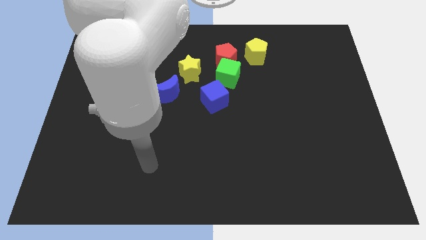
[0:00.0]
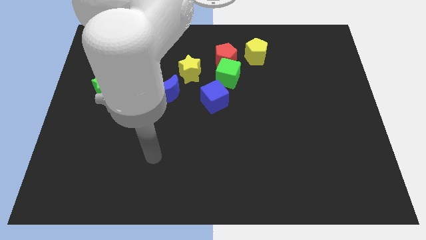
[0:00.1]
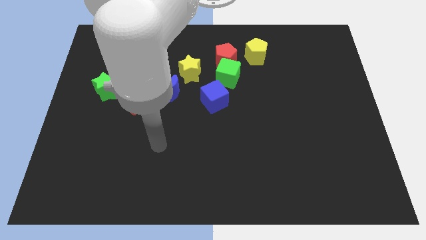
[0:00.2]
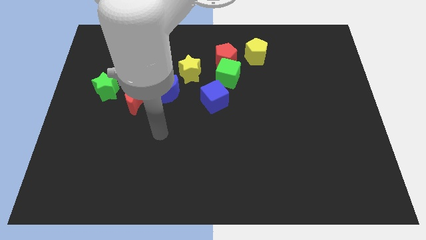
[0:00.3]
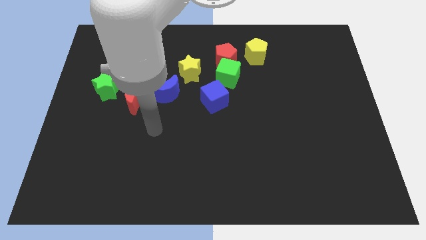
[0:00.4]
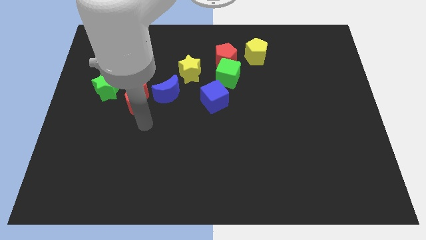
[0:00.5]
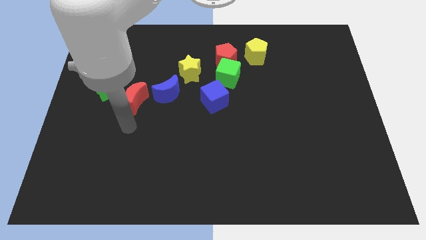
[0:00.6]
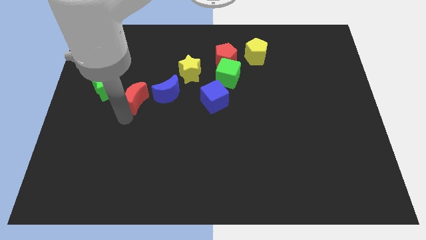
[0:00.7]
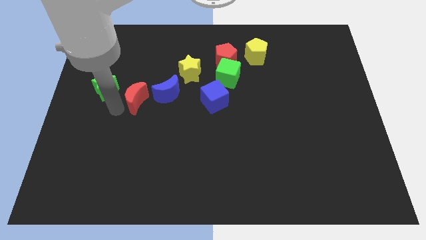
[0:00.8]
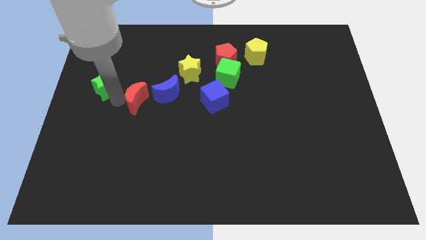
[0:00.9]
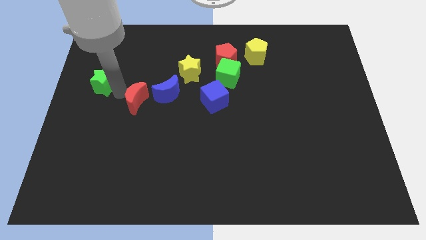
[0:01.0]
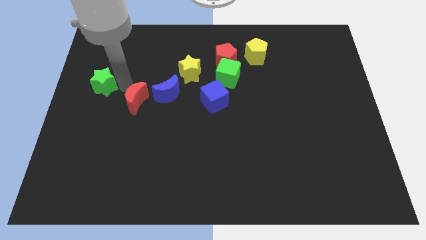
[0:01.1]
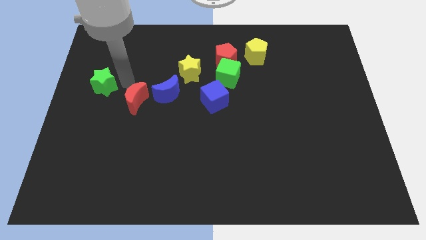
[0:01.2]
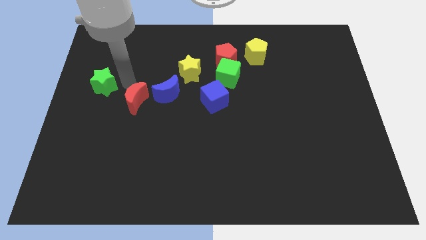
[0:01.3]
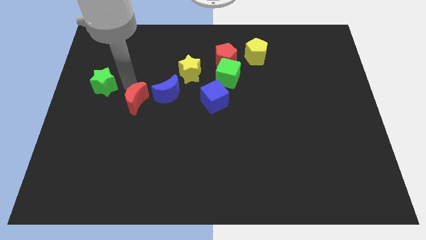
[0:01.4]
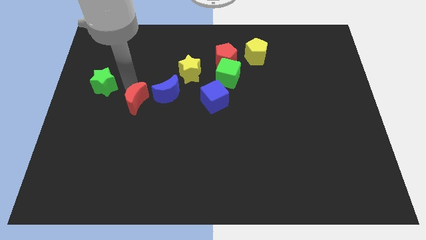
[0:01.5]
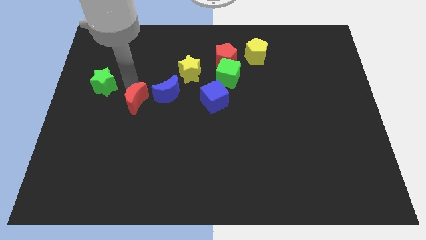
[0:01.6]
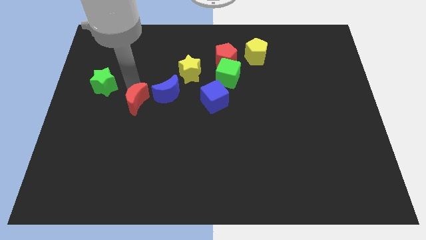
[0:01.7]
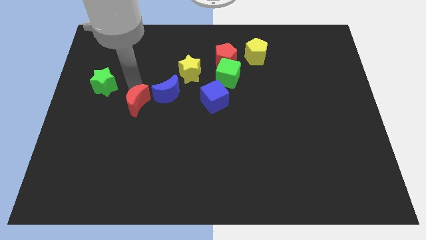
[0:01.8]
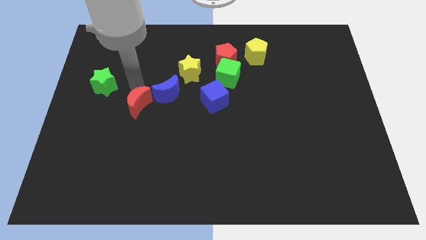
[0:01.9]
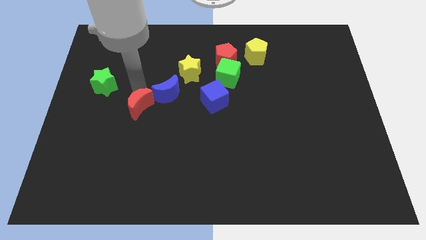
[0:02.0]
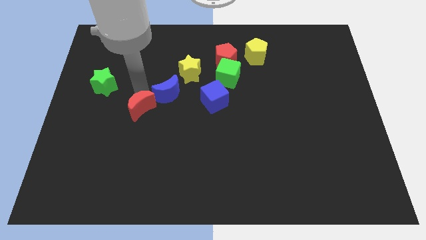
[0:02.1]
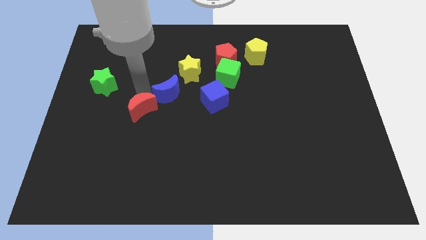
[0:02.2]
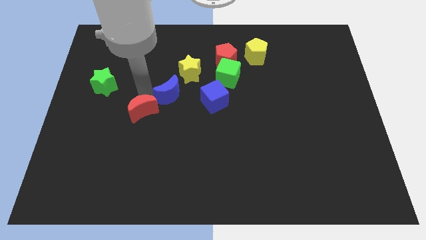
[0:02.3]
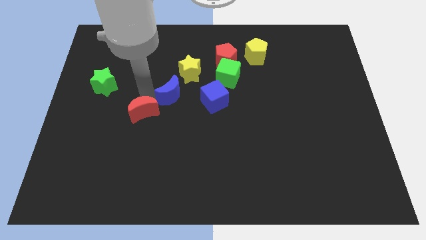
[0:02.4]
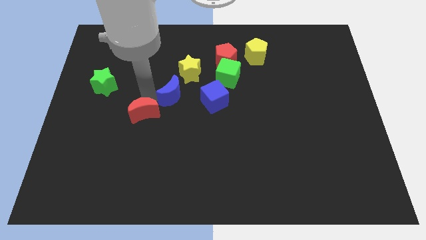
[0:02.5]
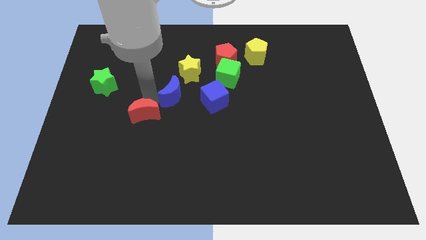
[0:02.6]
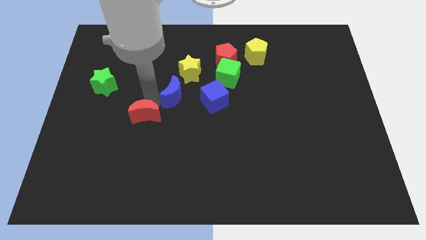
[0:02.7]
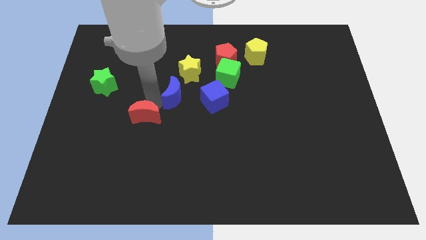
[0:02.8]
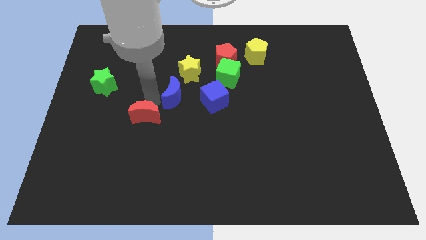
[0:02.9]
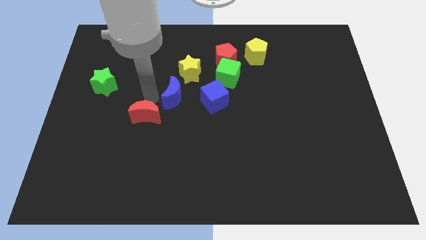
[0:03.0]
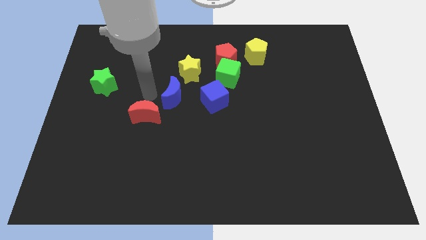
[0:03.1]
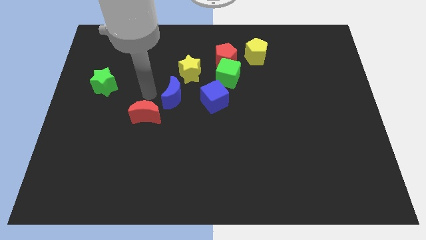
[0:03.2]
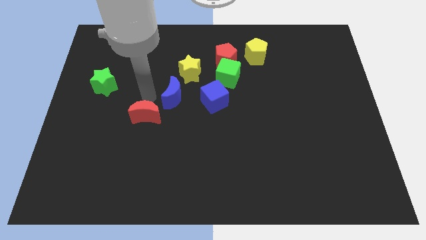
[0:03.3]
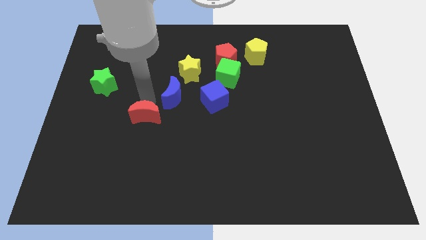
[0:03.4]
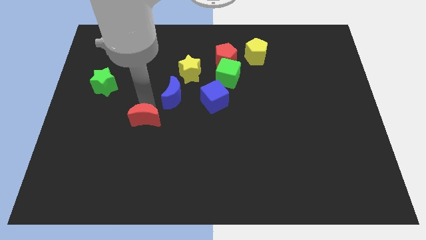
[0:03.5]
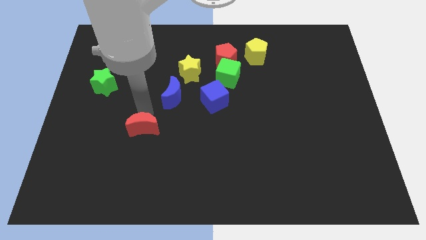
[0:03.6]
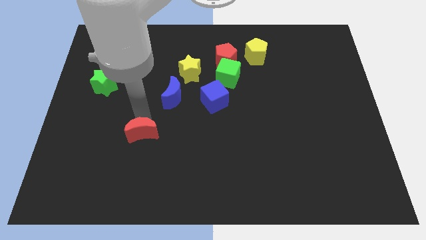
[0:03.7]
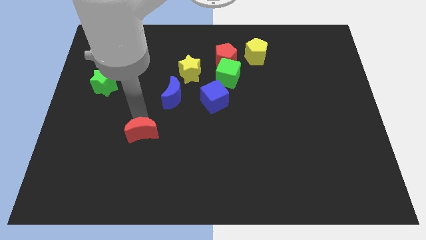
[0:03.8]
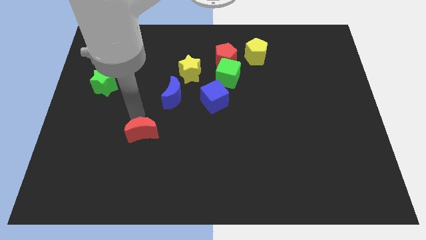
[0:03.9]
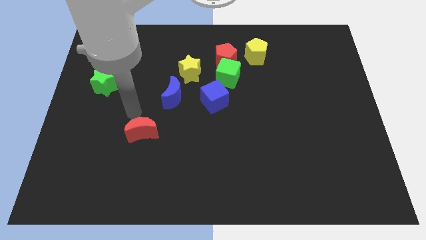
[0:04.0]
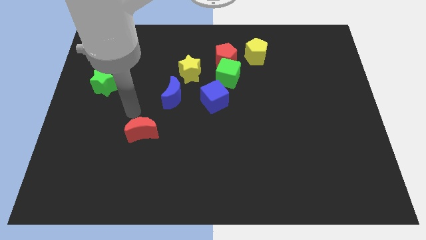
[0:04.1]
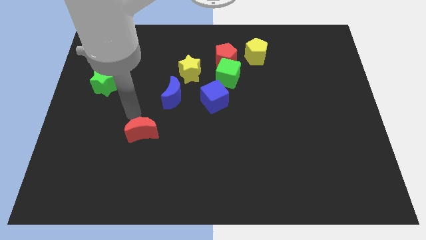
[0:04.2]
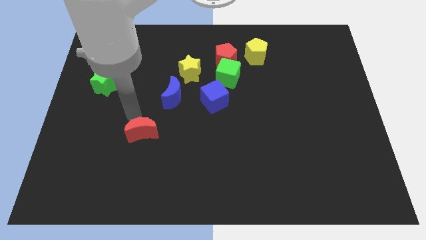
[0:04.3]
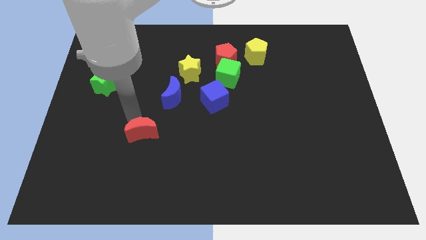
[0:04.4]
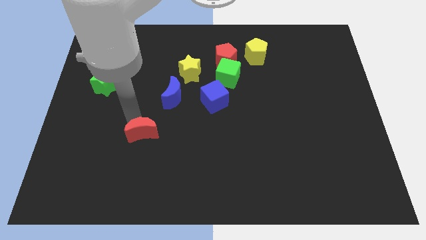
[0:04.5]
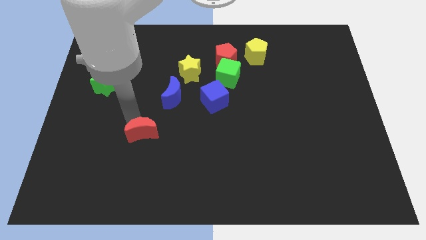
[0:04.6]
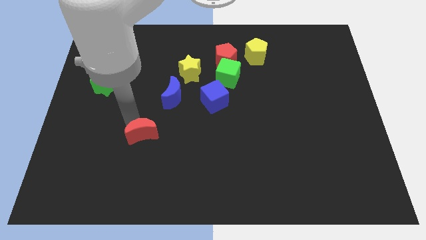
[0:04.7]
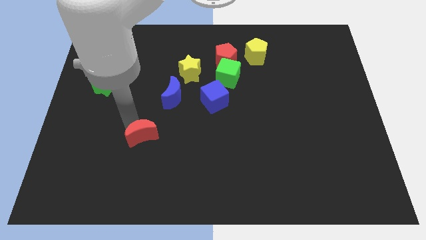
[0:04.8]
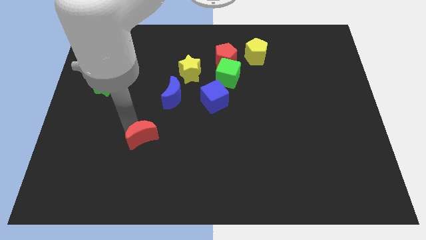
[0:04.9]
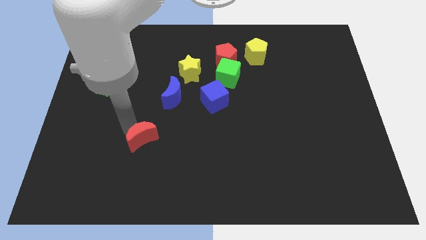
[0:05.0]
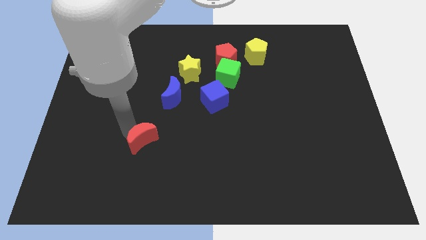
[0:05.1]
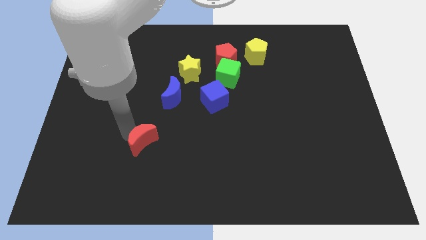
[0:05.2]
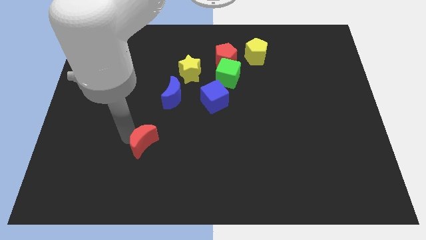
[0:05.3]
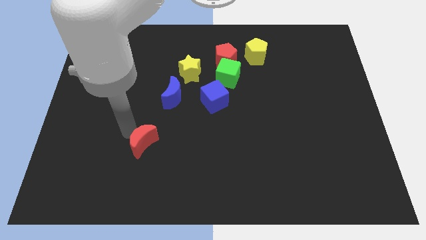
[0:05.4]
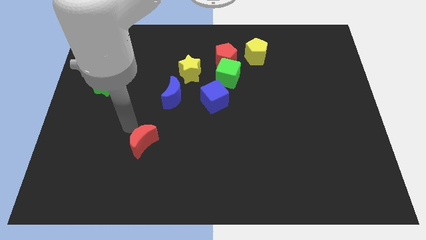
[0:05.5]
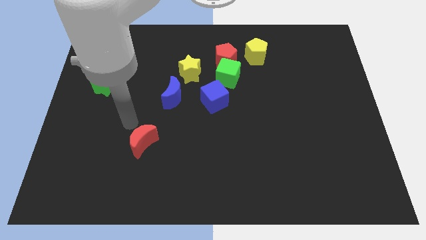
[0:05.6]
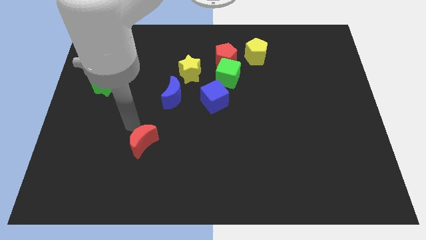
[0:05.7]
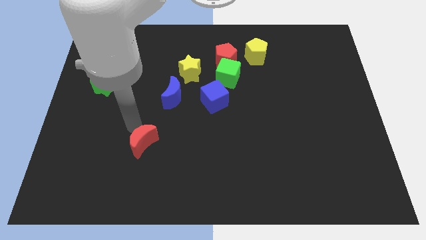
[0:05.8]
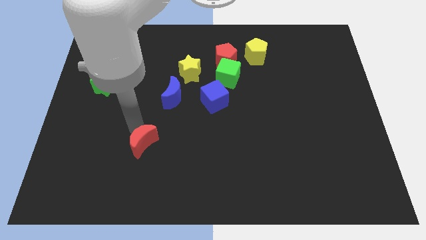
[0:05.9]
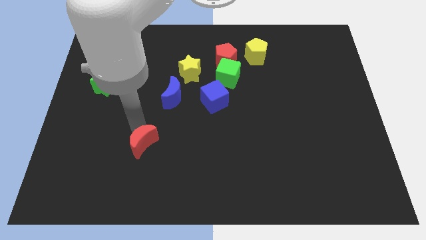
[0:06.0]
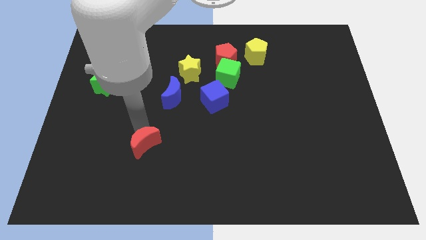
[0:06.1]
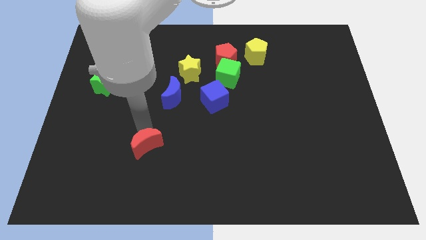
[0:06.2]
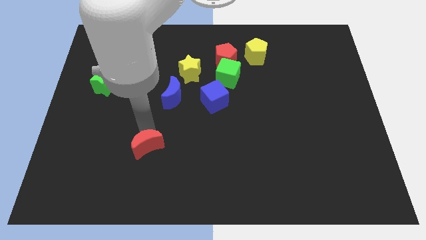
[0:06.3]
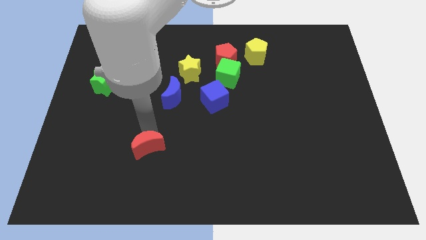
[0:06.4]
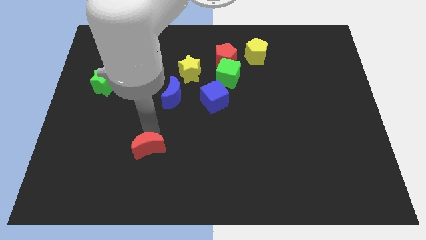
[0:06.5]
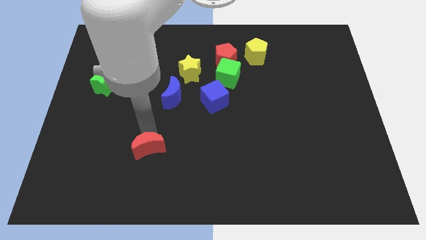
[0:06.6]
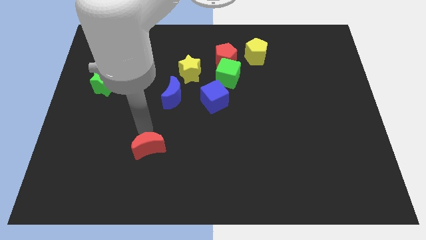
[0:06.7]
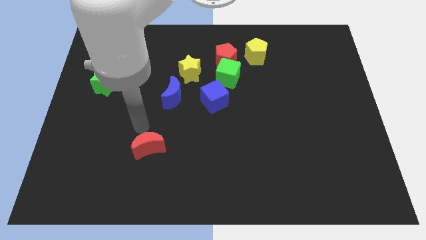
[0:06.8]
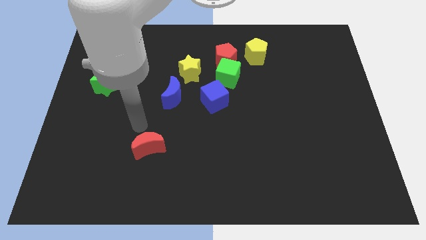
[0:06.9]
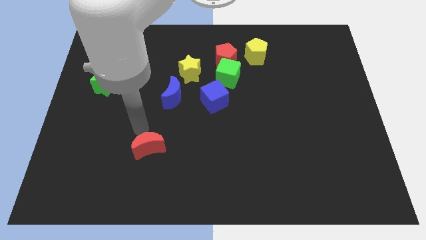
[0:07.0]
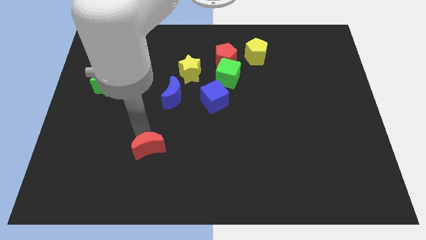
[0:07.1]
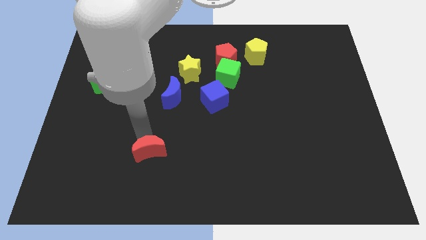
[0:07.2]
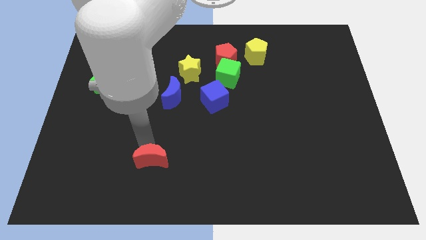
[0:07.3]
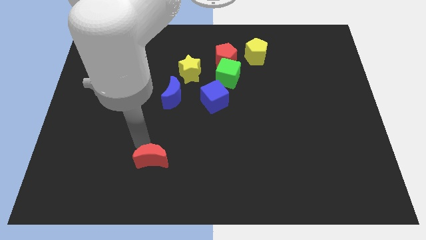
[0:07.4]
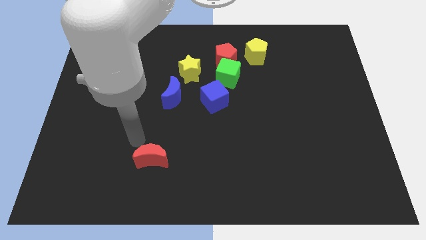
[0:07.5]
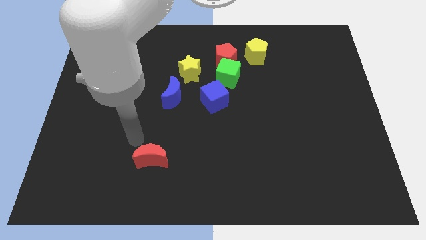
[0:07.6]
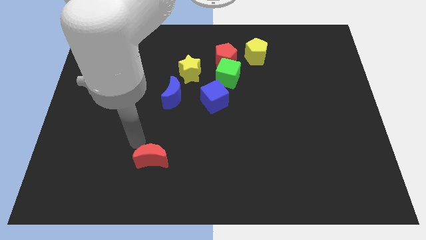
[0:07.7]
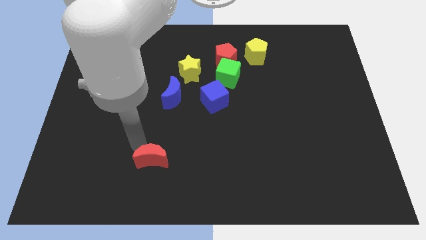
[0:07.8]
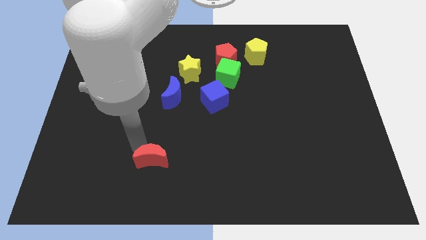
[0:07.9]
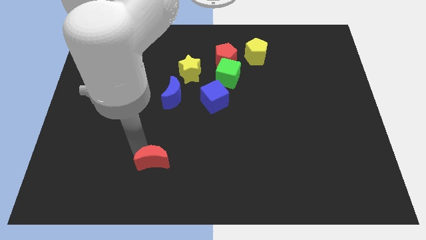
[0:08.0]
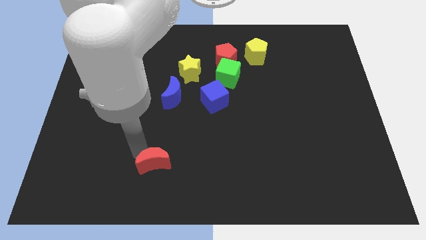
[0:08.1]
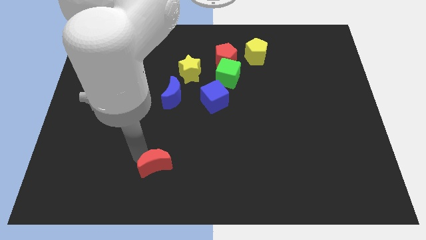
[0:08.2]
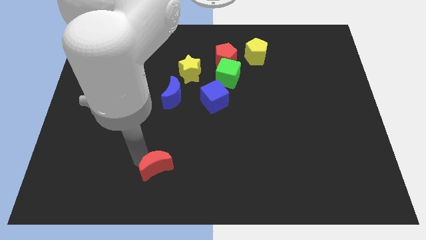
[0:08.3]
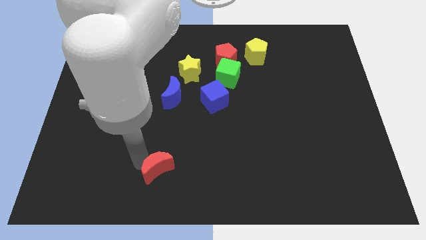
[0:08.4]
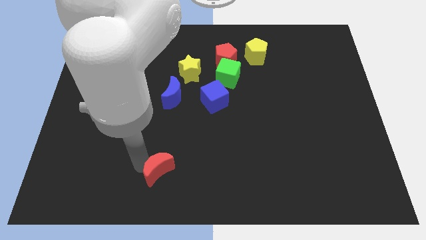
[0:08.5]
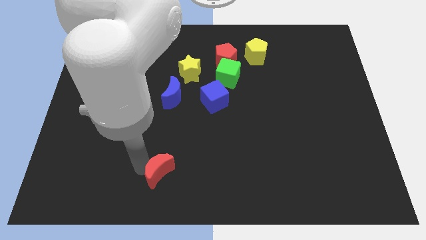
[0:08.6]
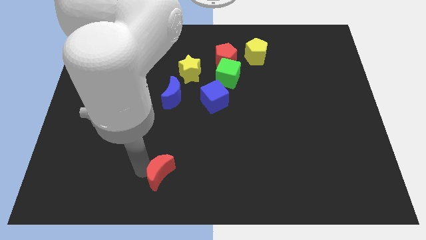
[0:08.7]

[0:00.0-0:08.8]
push the red moon to the bottom
